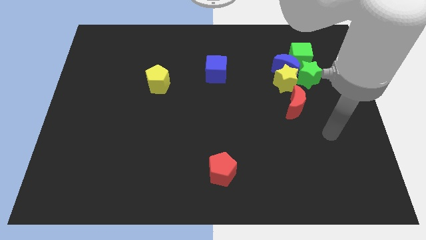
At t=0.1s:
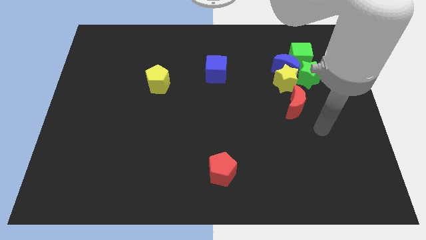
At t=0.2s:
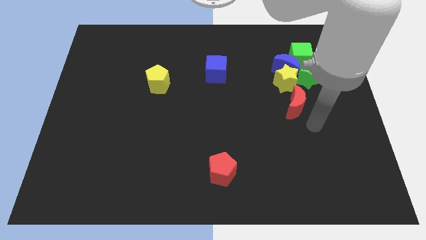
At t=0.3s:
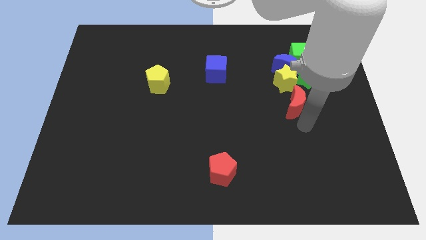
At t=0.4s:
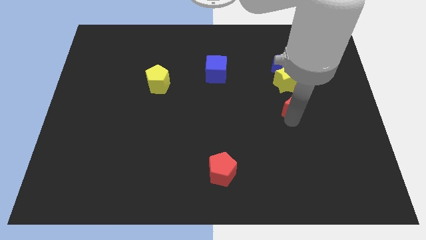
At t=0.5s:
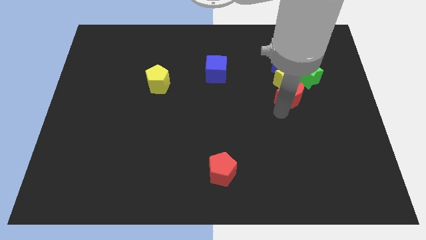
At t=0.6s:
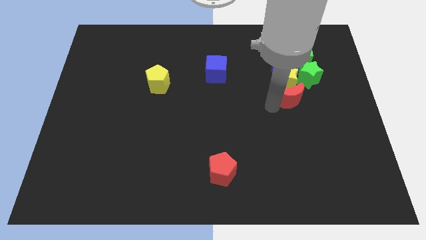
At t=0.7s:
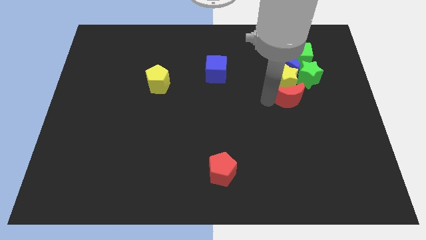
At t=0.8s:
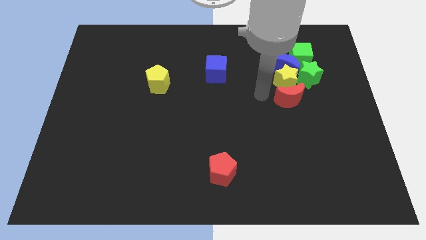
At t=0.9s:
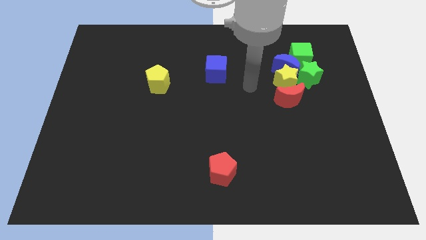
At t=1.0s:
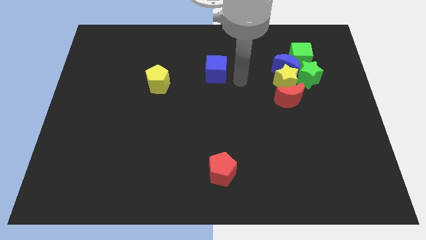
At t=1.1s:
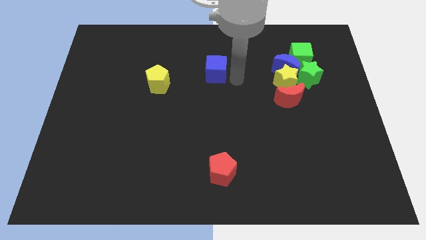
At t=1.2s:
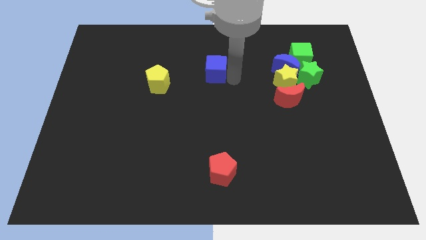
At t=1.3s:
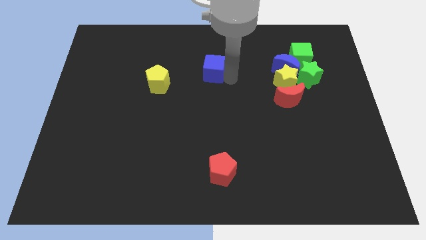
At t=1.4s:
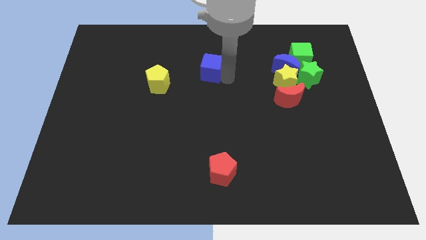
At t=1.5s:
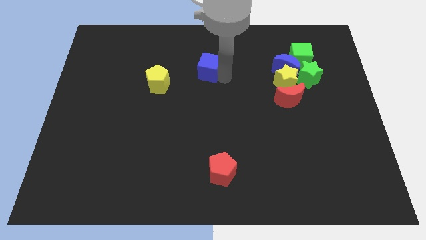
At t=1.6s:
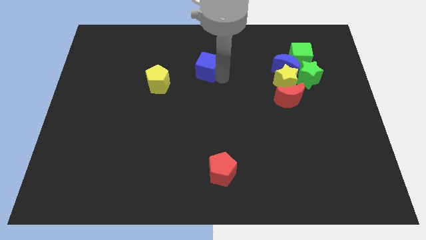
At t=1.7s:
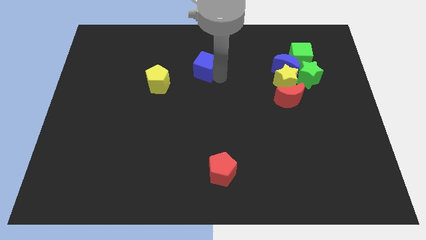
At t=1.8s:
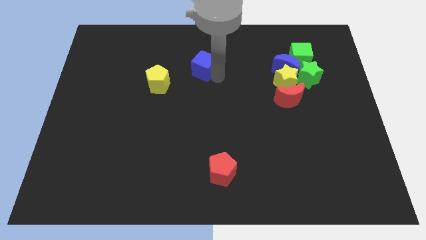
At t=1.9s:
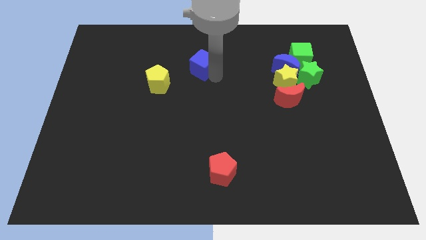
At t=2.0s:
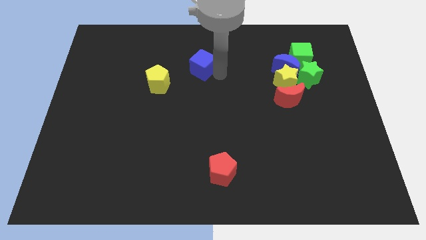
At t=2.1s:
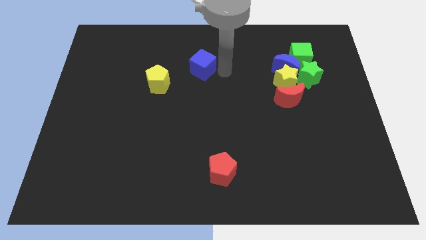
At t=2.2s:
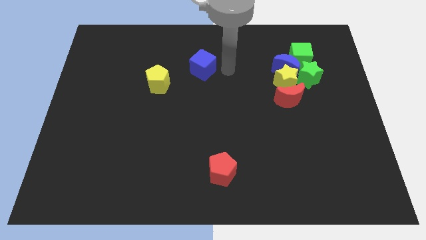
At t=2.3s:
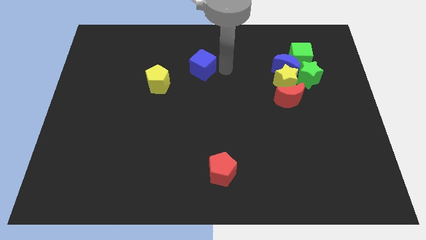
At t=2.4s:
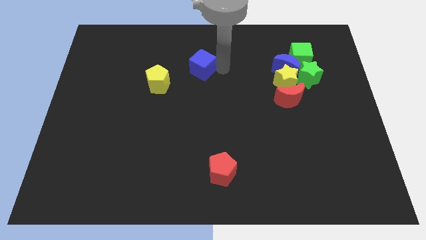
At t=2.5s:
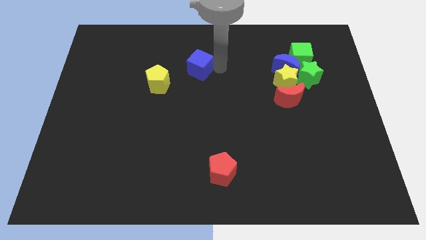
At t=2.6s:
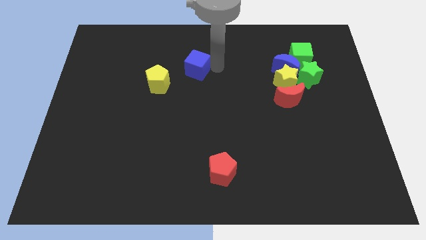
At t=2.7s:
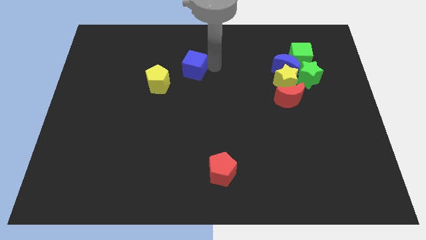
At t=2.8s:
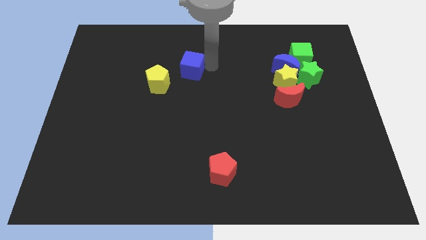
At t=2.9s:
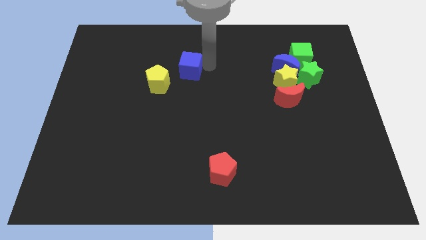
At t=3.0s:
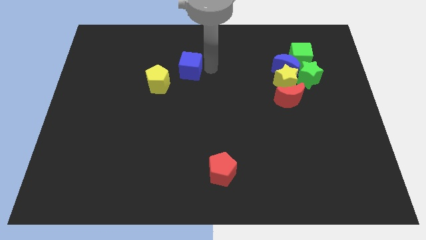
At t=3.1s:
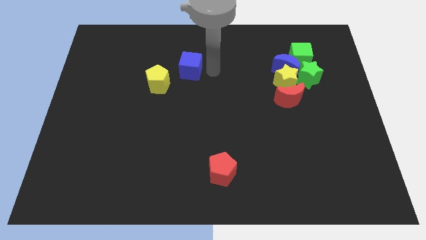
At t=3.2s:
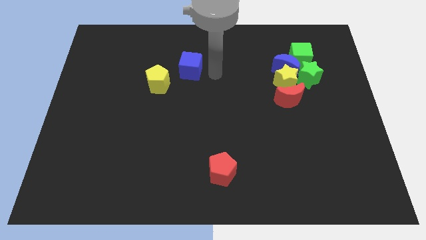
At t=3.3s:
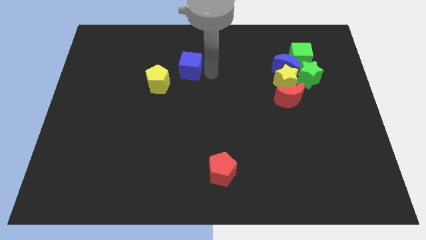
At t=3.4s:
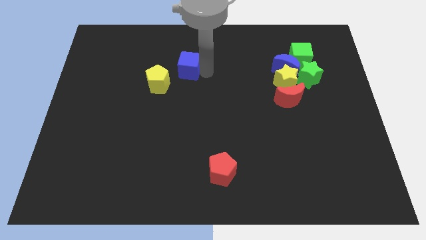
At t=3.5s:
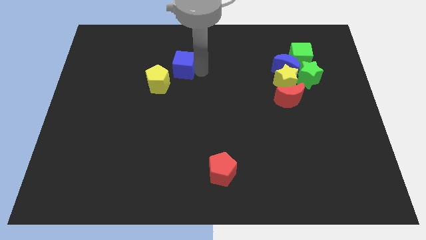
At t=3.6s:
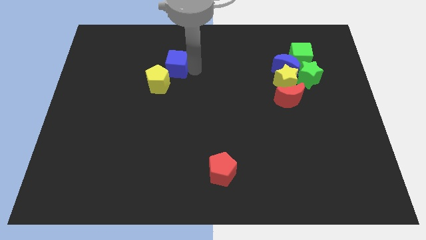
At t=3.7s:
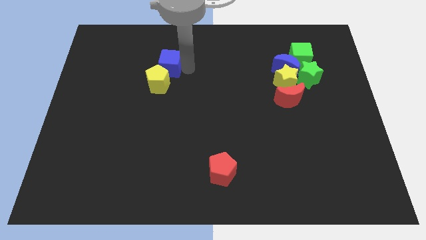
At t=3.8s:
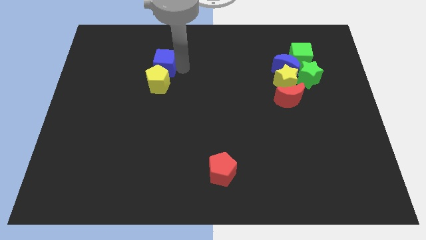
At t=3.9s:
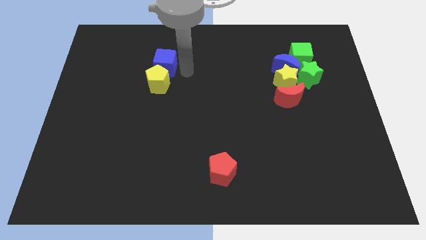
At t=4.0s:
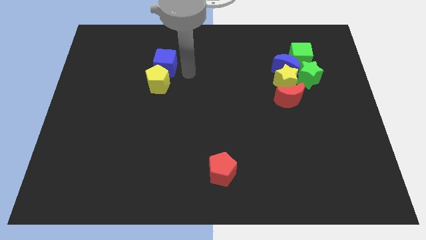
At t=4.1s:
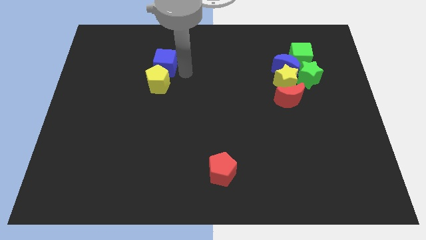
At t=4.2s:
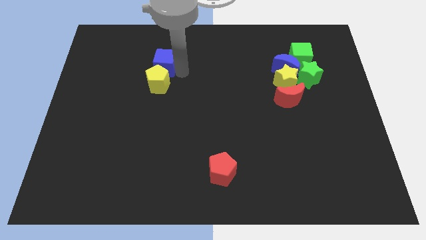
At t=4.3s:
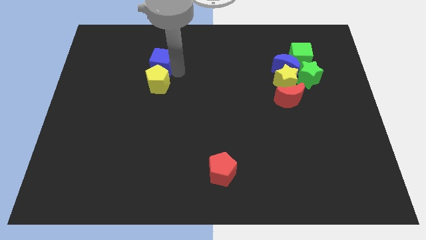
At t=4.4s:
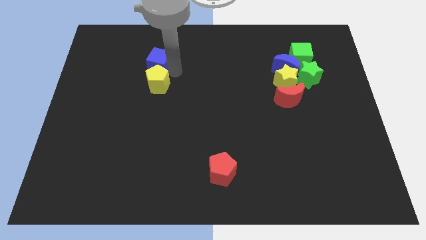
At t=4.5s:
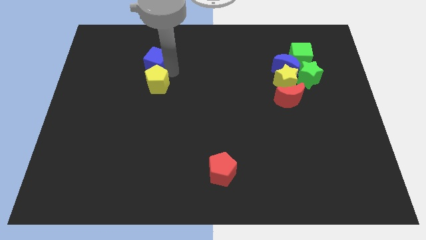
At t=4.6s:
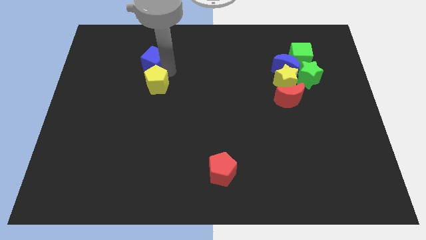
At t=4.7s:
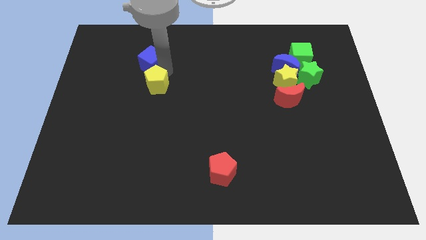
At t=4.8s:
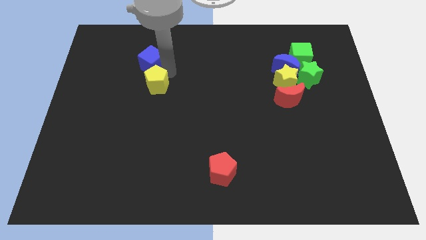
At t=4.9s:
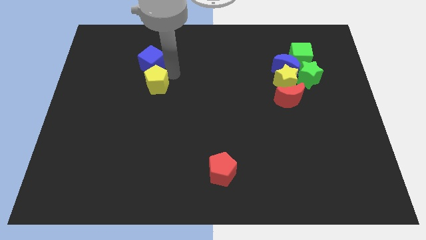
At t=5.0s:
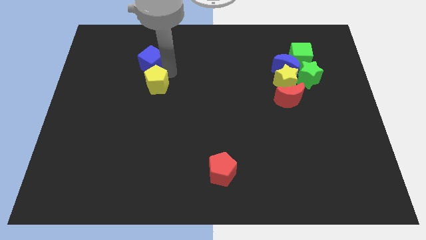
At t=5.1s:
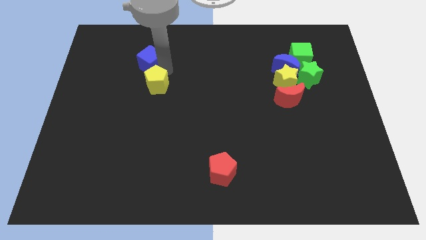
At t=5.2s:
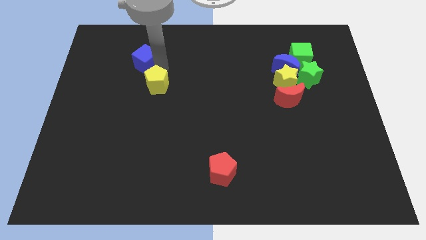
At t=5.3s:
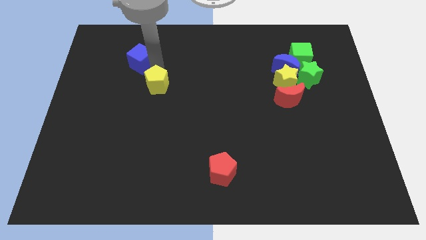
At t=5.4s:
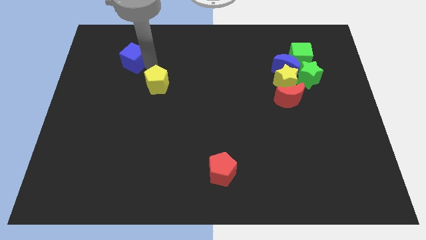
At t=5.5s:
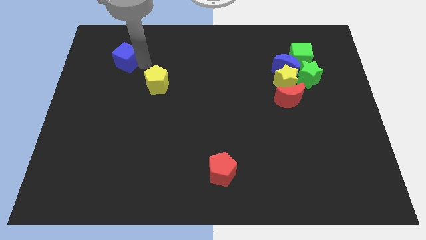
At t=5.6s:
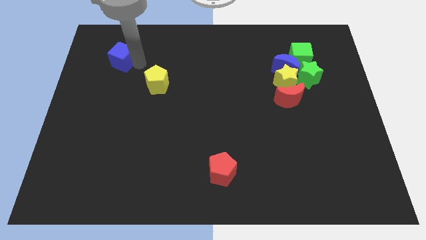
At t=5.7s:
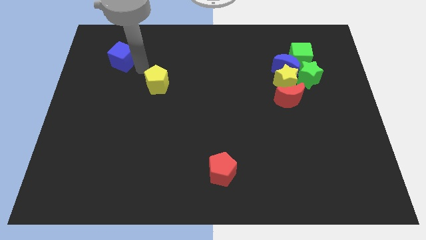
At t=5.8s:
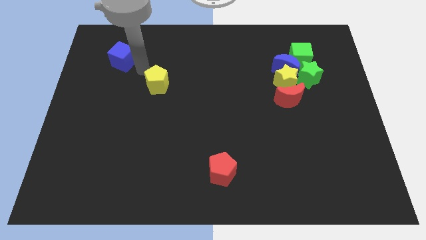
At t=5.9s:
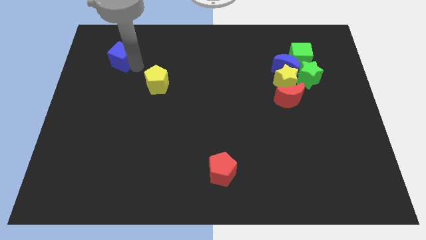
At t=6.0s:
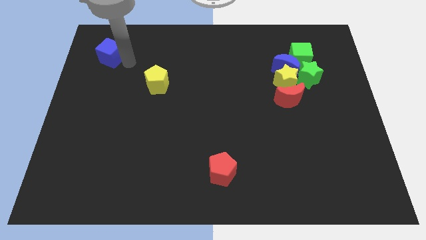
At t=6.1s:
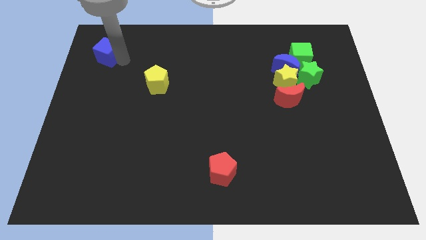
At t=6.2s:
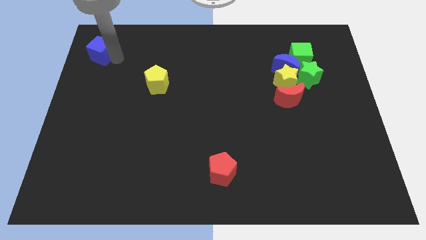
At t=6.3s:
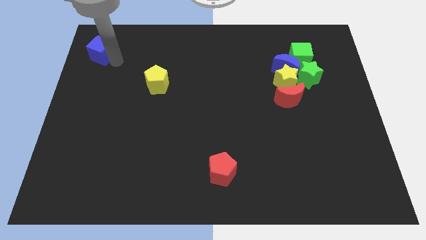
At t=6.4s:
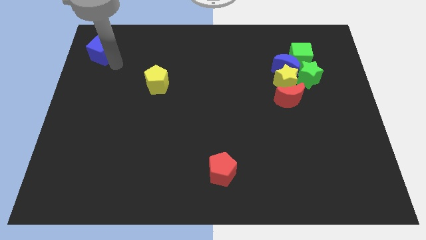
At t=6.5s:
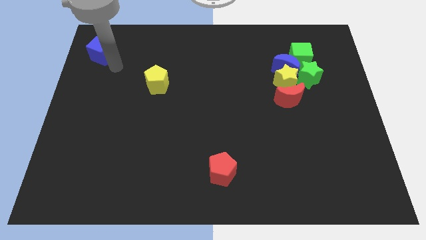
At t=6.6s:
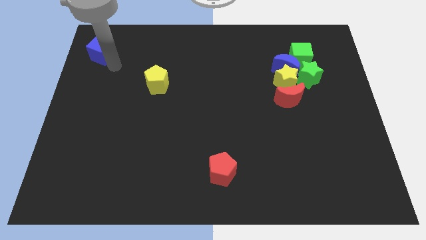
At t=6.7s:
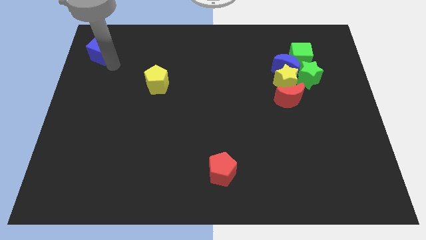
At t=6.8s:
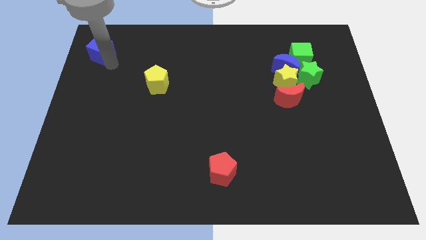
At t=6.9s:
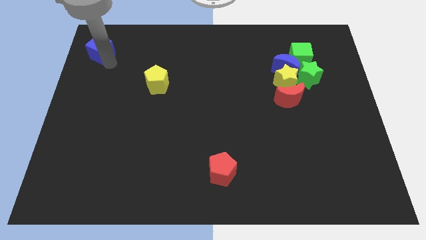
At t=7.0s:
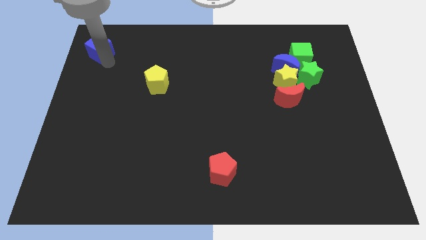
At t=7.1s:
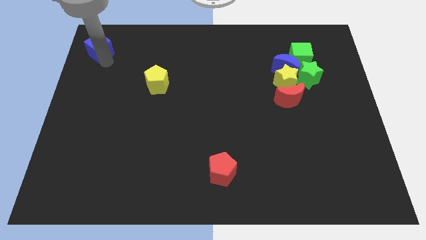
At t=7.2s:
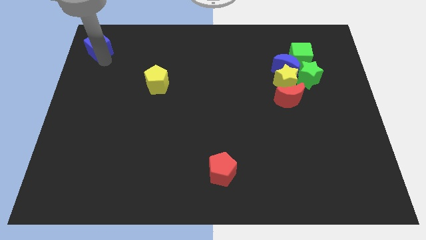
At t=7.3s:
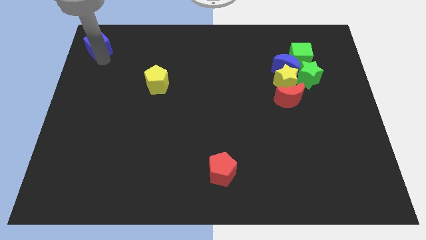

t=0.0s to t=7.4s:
move the blue cube to the upper left corner
